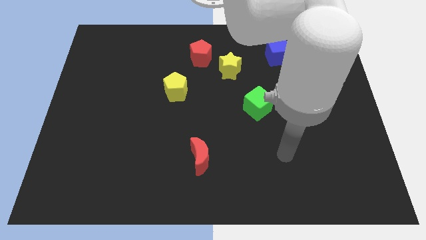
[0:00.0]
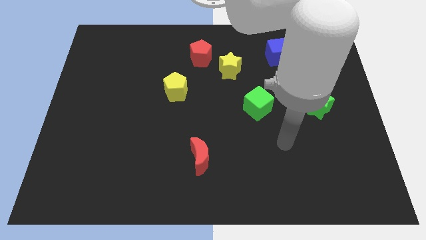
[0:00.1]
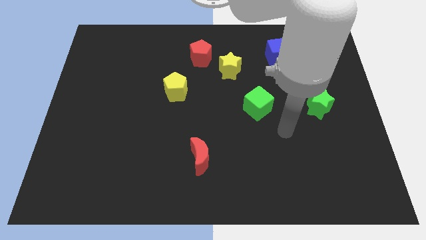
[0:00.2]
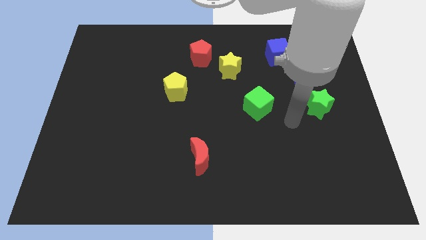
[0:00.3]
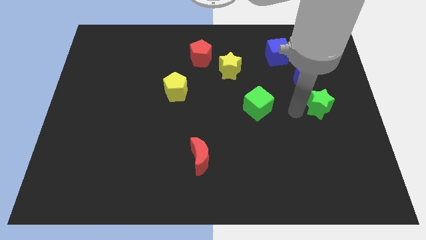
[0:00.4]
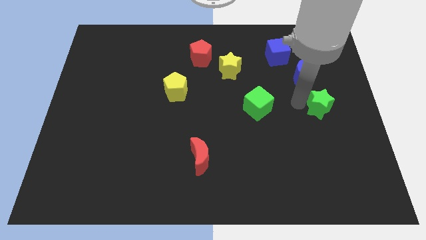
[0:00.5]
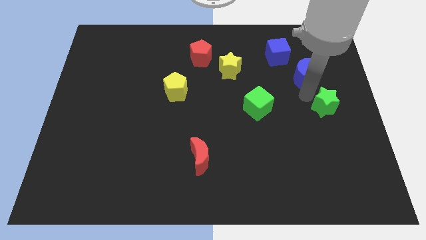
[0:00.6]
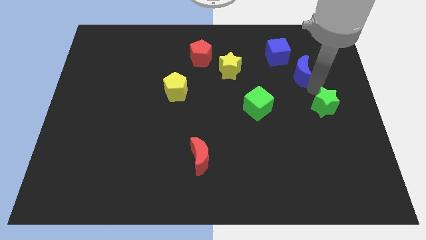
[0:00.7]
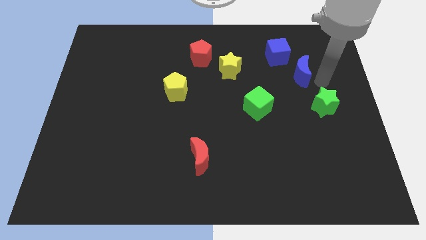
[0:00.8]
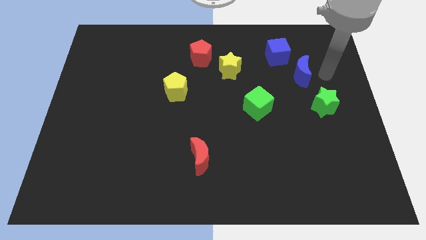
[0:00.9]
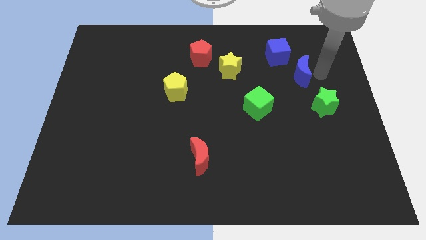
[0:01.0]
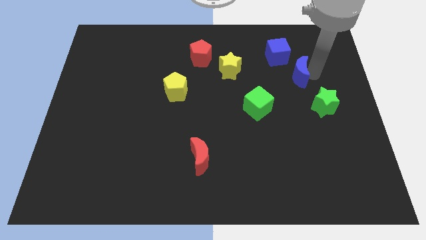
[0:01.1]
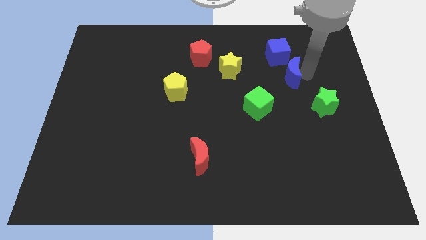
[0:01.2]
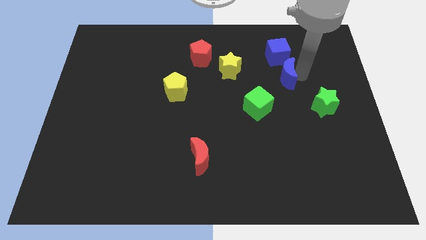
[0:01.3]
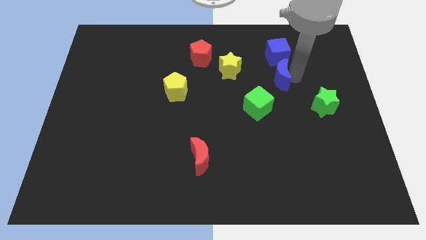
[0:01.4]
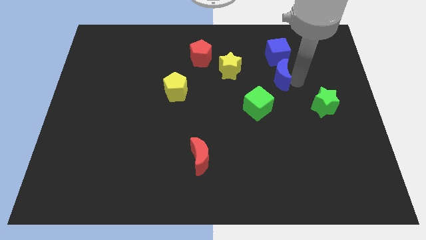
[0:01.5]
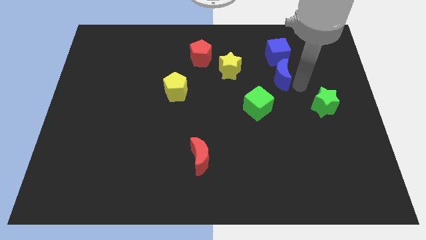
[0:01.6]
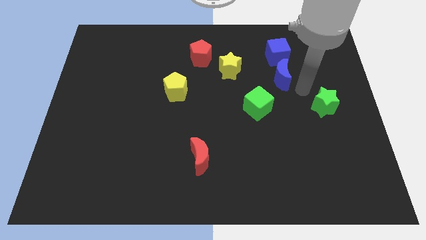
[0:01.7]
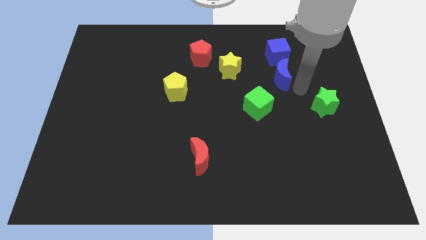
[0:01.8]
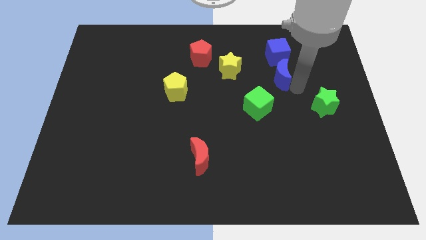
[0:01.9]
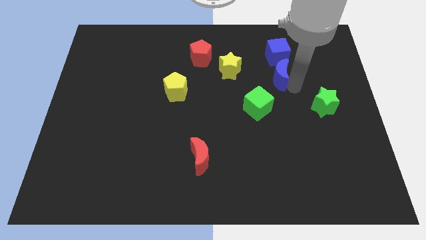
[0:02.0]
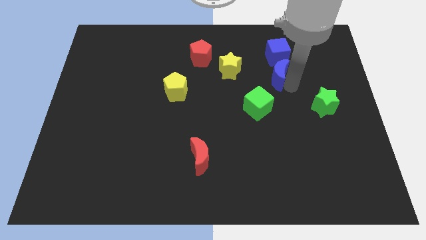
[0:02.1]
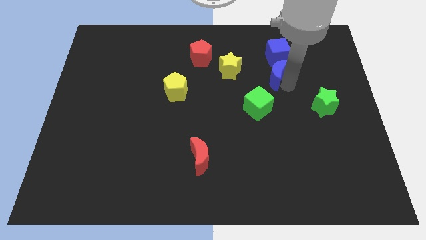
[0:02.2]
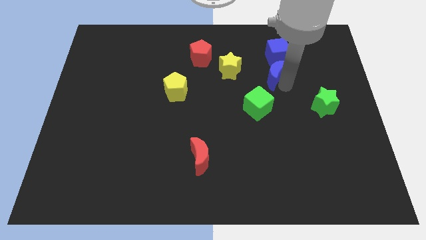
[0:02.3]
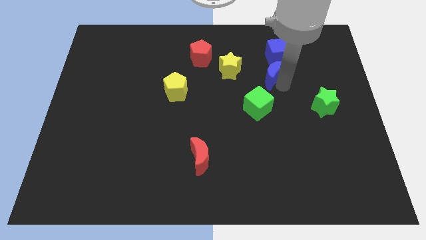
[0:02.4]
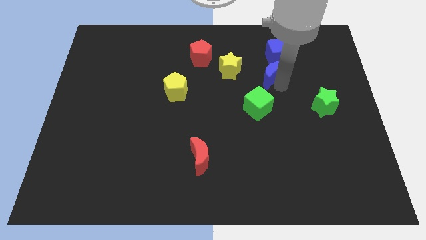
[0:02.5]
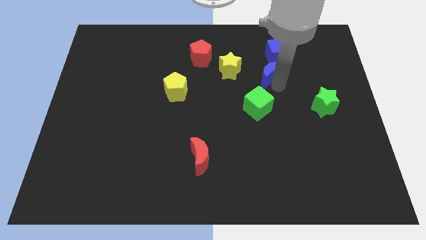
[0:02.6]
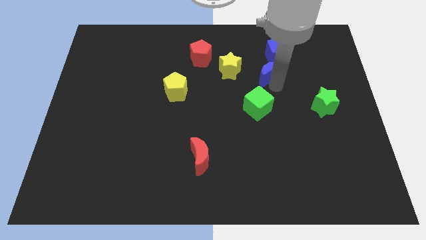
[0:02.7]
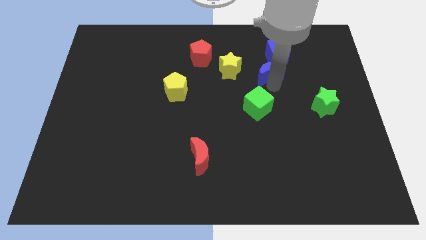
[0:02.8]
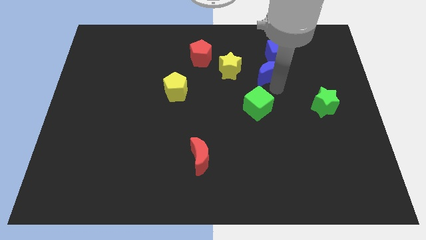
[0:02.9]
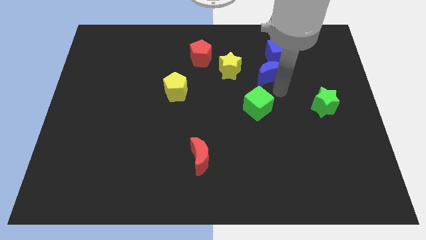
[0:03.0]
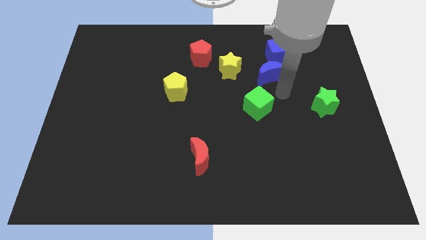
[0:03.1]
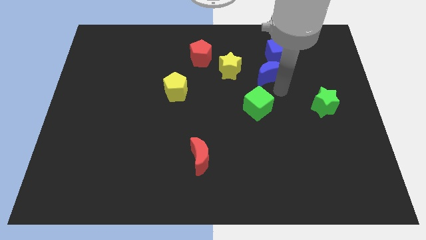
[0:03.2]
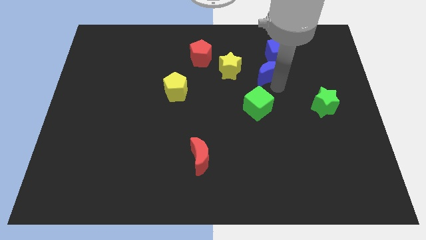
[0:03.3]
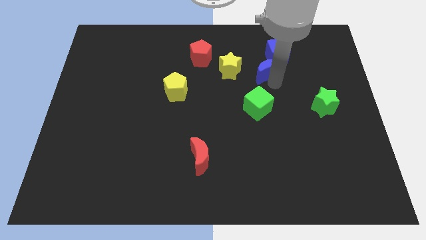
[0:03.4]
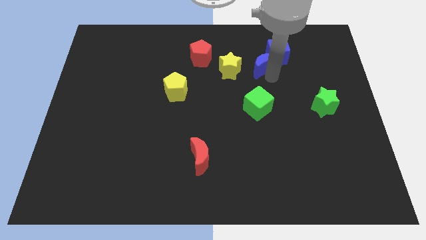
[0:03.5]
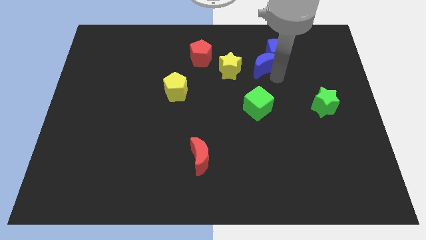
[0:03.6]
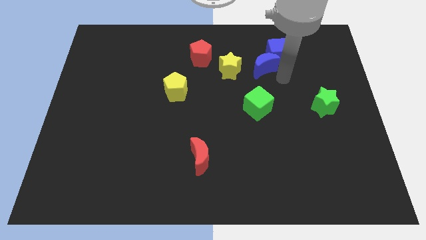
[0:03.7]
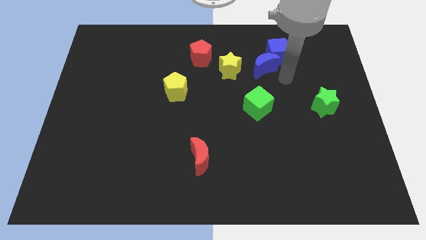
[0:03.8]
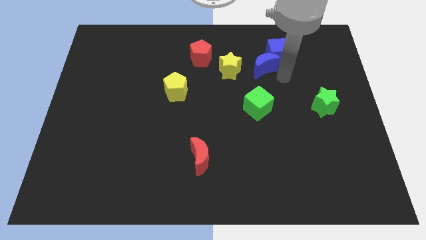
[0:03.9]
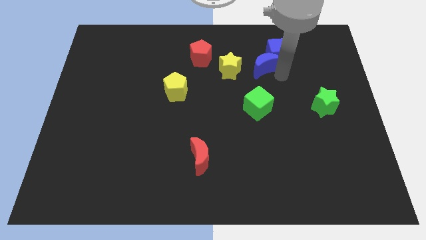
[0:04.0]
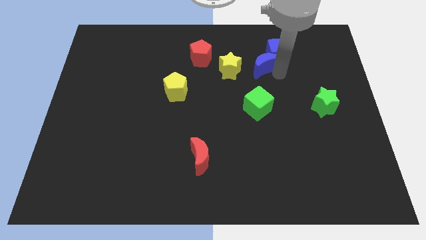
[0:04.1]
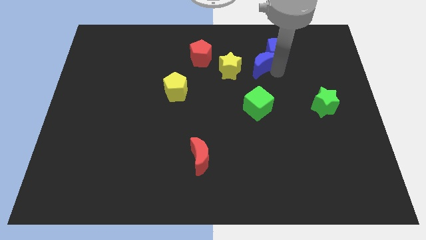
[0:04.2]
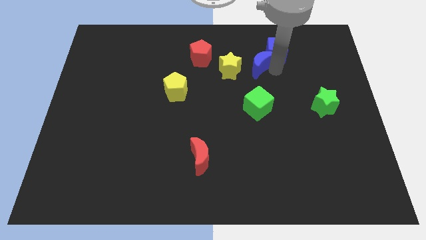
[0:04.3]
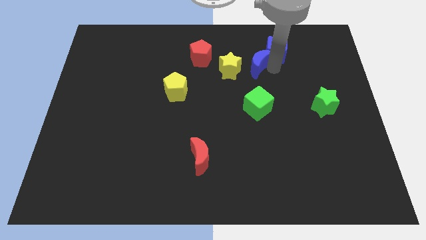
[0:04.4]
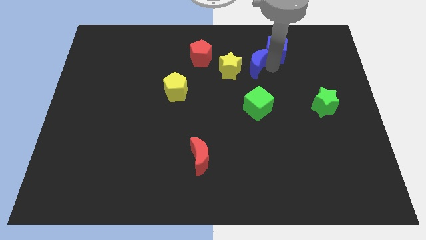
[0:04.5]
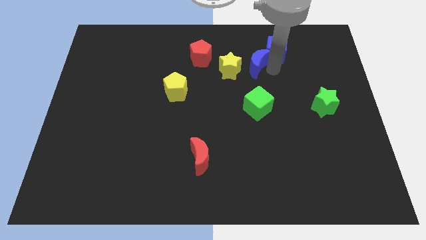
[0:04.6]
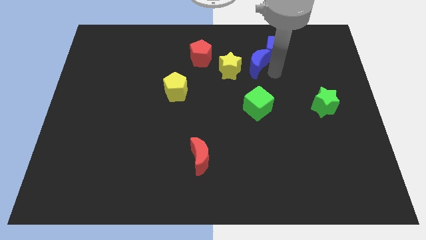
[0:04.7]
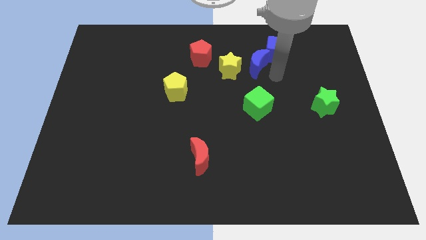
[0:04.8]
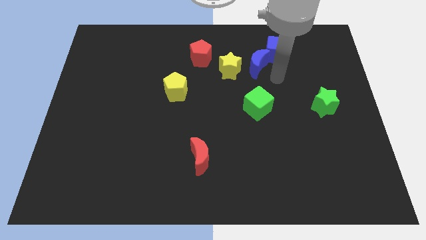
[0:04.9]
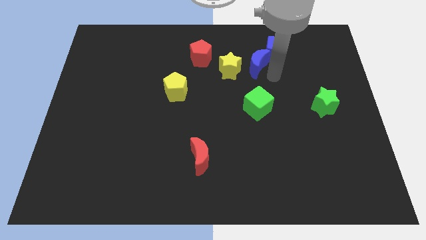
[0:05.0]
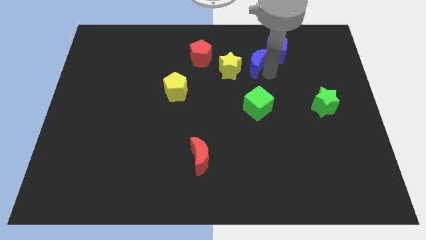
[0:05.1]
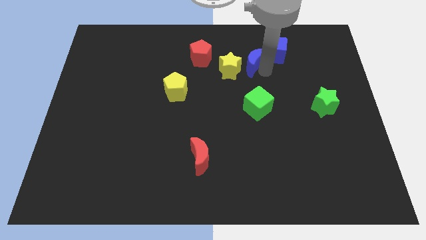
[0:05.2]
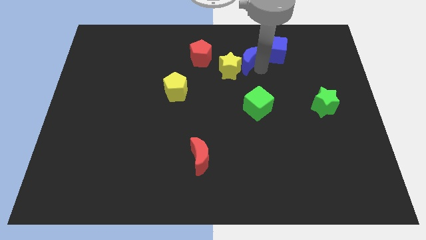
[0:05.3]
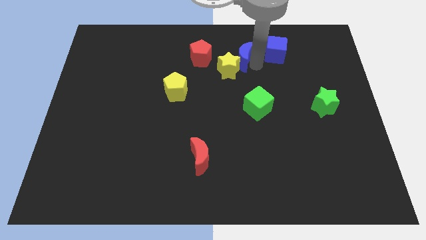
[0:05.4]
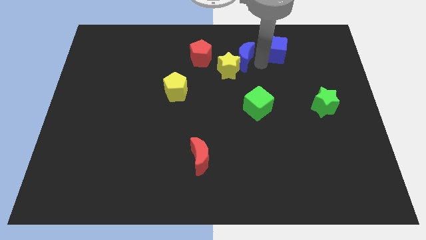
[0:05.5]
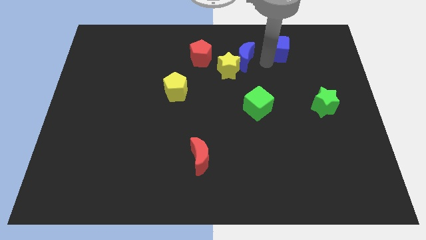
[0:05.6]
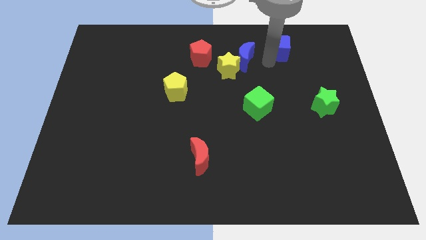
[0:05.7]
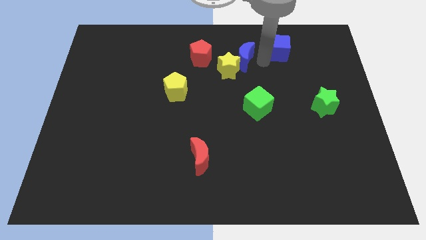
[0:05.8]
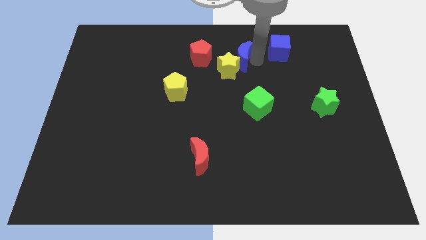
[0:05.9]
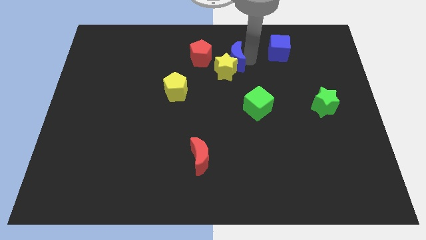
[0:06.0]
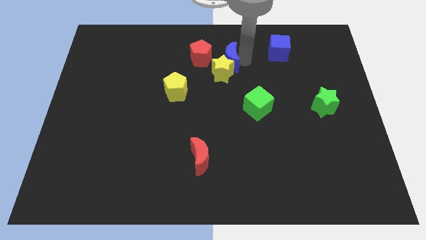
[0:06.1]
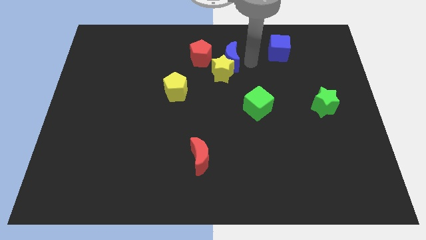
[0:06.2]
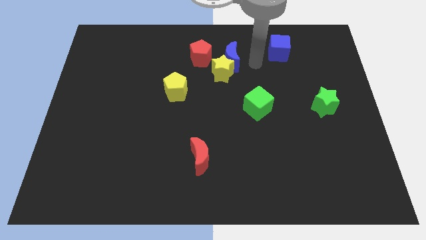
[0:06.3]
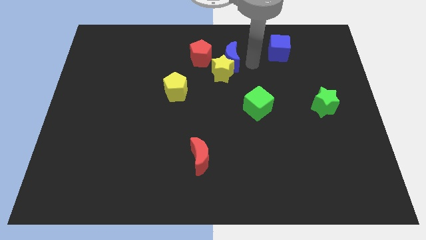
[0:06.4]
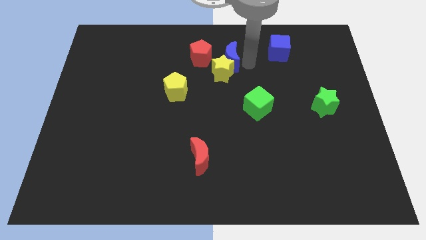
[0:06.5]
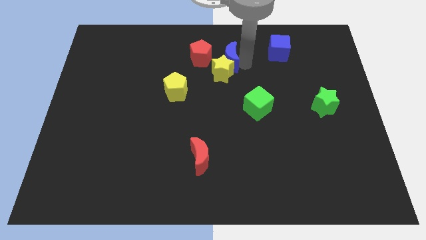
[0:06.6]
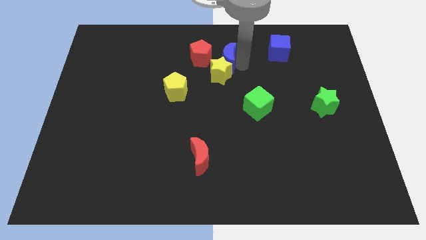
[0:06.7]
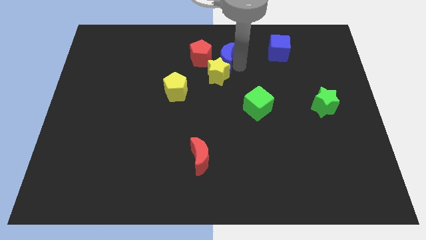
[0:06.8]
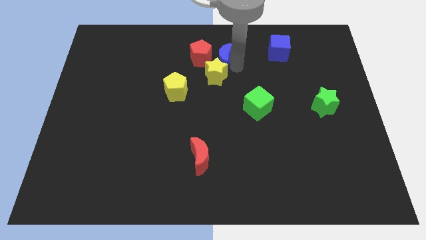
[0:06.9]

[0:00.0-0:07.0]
push the blue moon next to the red pentagon
